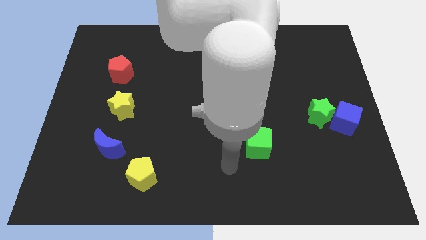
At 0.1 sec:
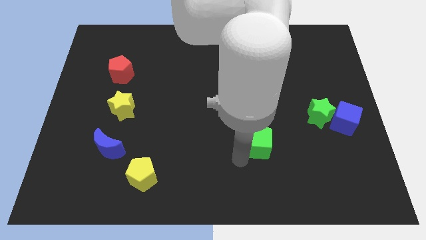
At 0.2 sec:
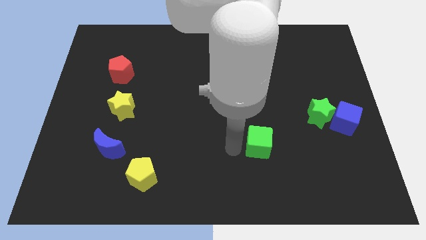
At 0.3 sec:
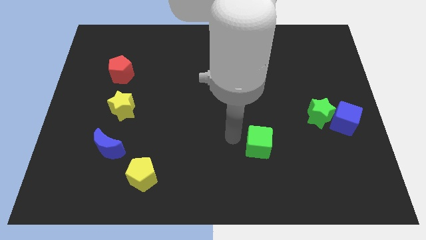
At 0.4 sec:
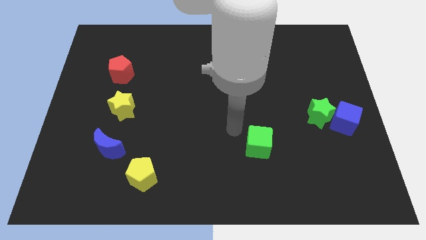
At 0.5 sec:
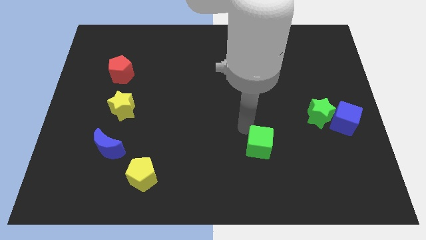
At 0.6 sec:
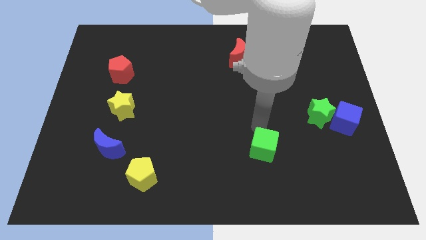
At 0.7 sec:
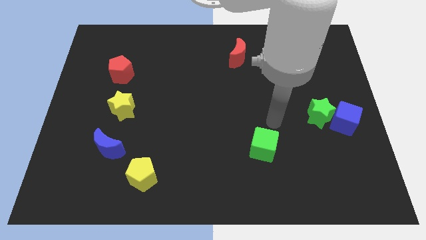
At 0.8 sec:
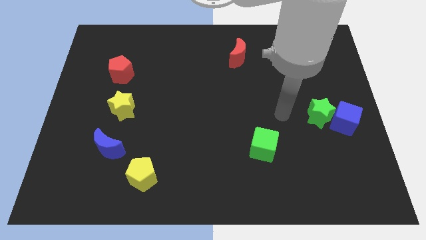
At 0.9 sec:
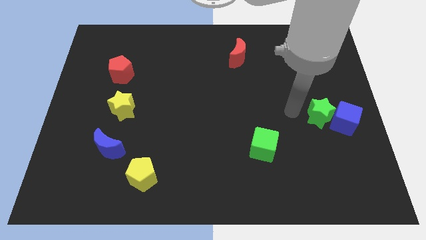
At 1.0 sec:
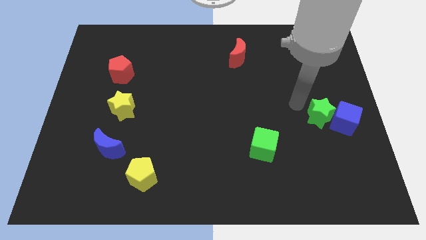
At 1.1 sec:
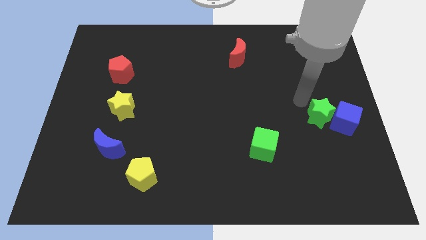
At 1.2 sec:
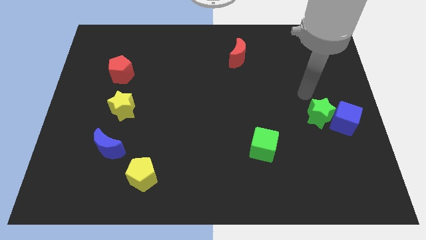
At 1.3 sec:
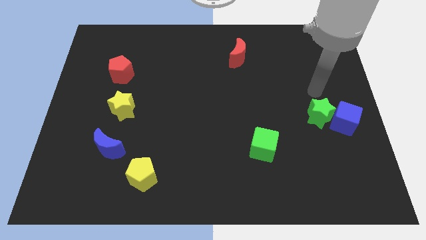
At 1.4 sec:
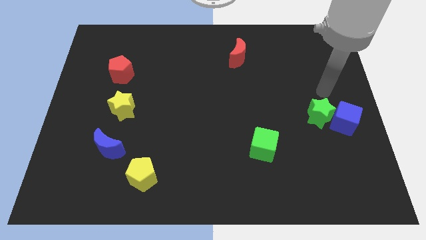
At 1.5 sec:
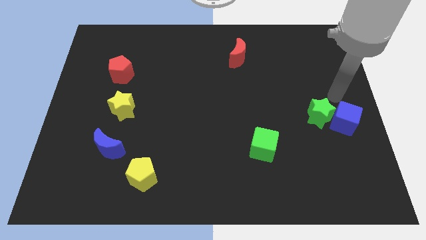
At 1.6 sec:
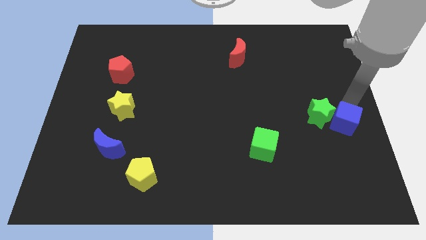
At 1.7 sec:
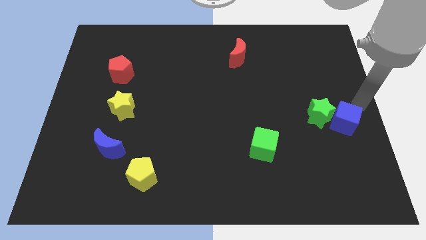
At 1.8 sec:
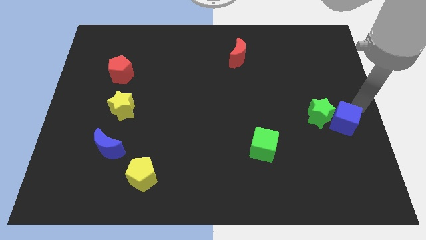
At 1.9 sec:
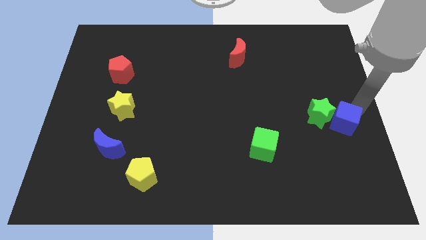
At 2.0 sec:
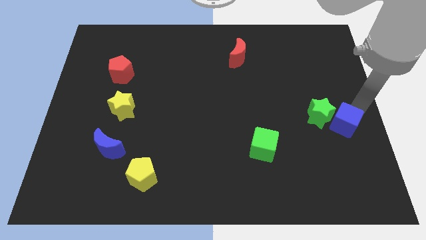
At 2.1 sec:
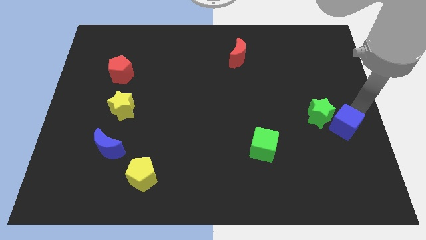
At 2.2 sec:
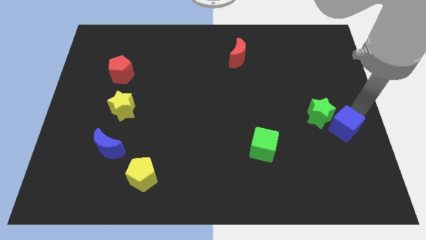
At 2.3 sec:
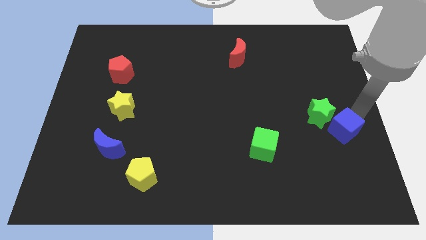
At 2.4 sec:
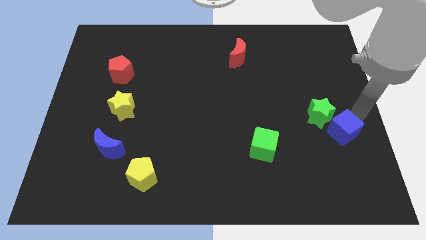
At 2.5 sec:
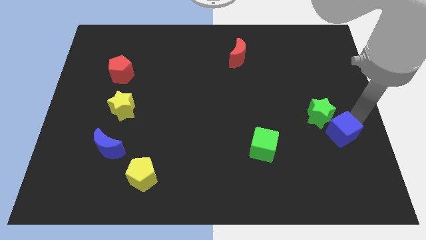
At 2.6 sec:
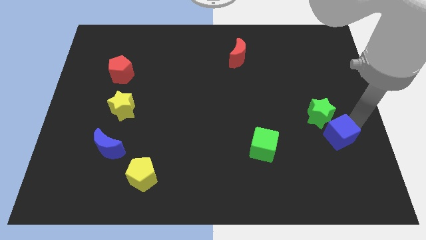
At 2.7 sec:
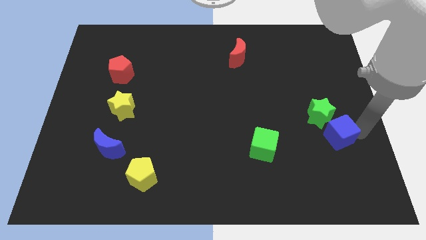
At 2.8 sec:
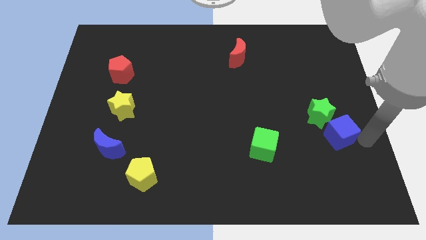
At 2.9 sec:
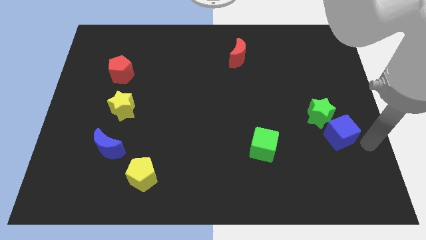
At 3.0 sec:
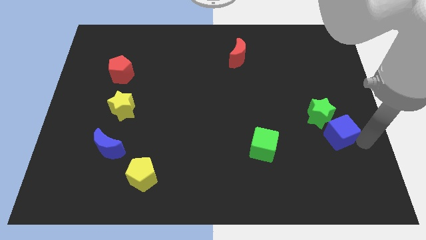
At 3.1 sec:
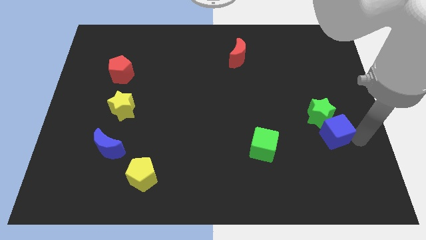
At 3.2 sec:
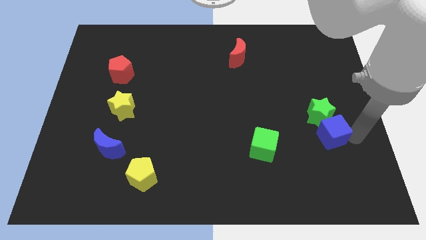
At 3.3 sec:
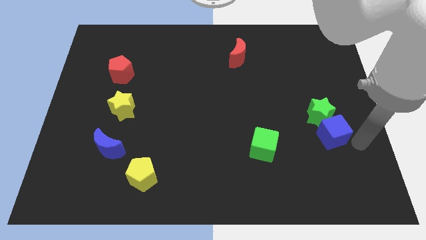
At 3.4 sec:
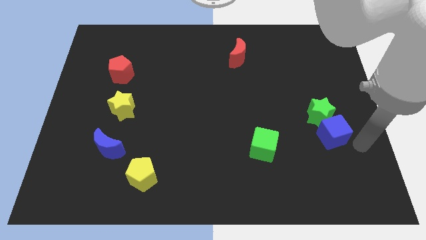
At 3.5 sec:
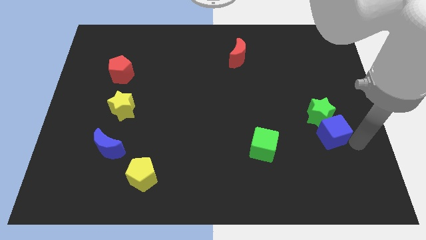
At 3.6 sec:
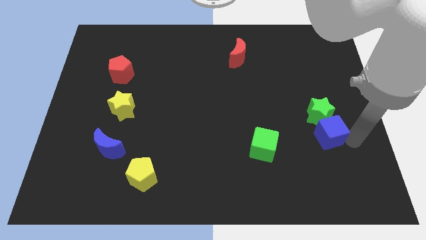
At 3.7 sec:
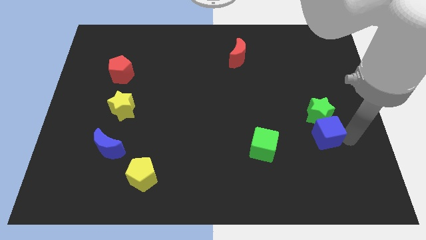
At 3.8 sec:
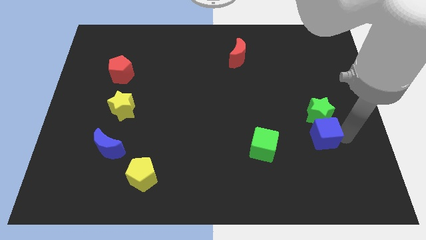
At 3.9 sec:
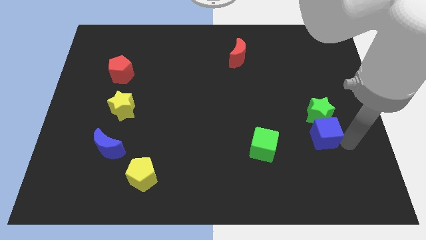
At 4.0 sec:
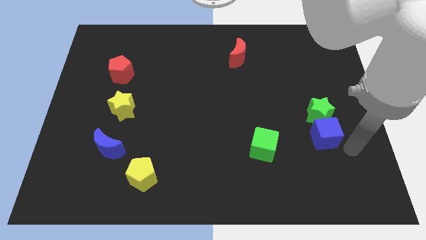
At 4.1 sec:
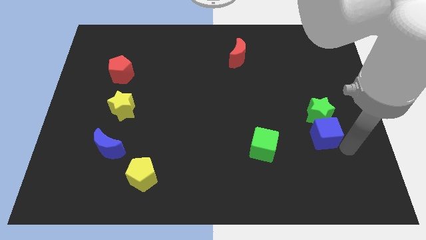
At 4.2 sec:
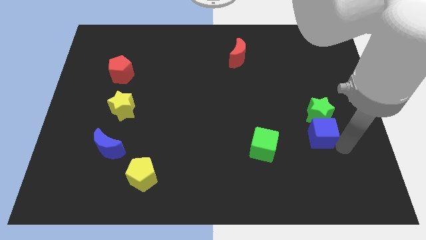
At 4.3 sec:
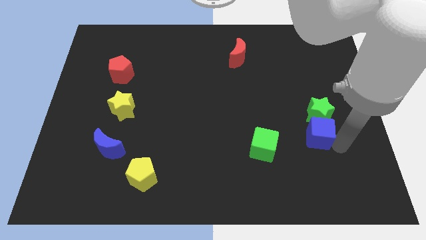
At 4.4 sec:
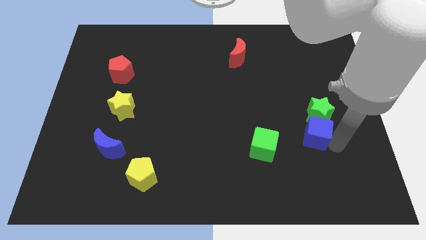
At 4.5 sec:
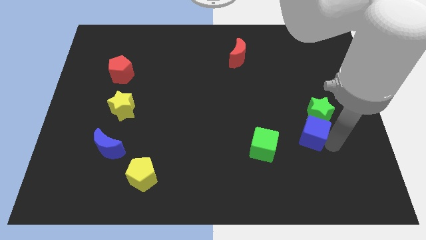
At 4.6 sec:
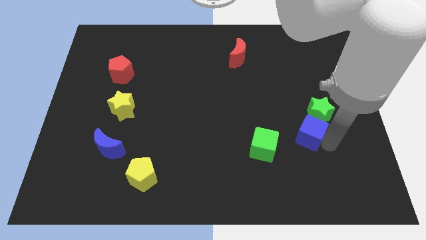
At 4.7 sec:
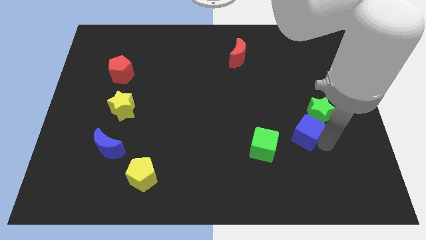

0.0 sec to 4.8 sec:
slide the blue cube to the top right side of the green cube

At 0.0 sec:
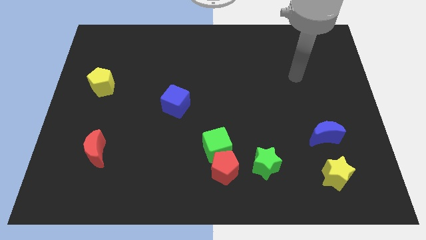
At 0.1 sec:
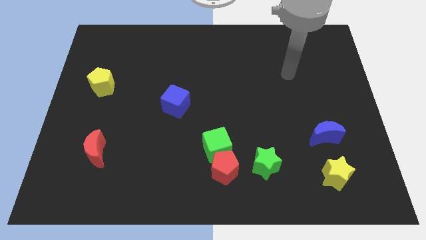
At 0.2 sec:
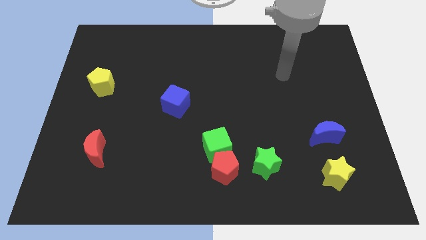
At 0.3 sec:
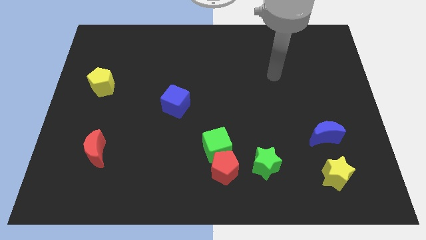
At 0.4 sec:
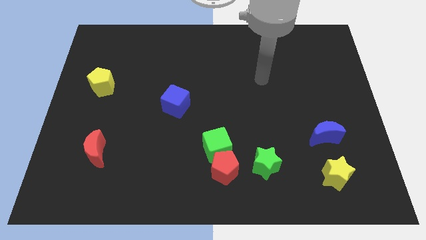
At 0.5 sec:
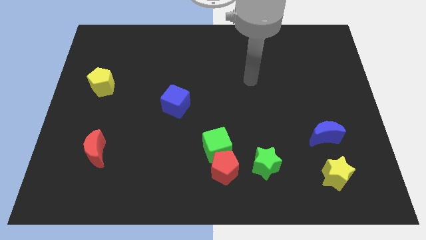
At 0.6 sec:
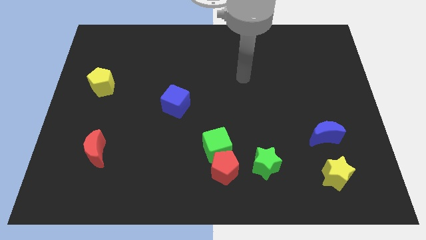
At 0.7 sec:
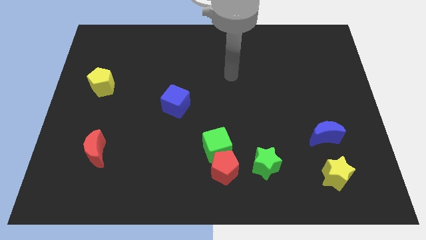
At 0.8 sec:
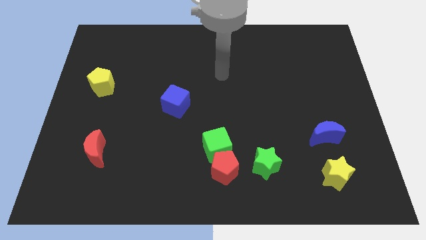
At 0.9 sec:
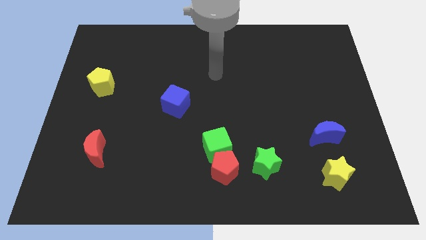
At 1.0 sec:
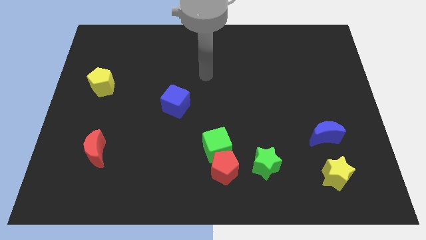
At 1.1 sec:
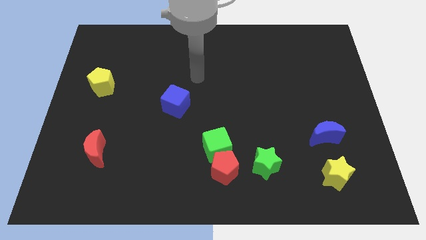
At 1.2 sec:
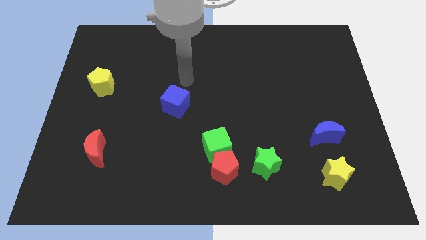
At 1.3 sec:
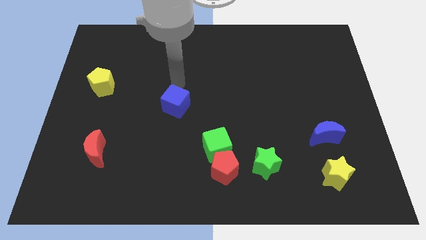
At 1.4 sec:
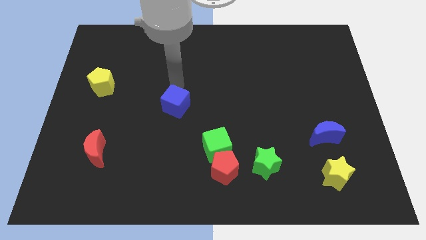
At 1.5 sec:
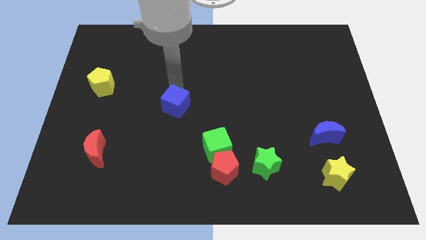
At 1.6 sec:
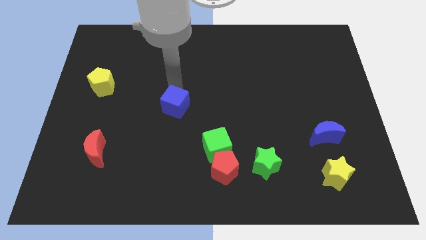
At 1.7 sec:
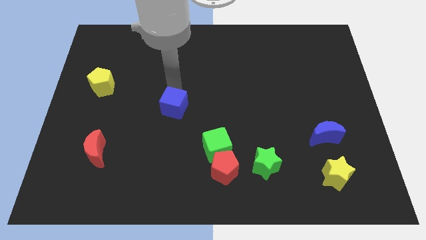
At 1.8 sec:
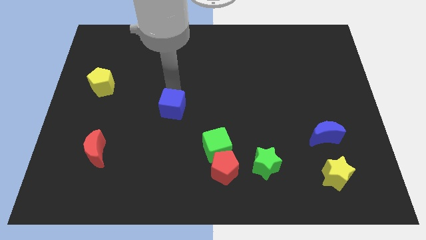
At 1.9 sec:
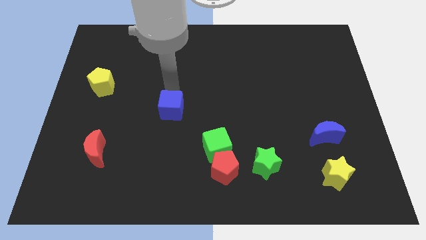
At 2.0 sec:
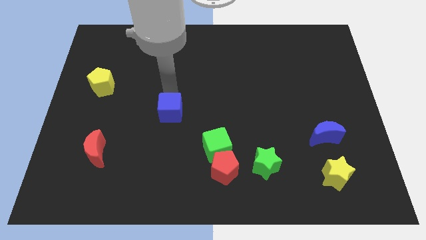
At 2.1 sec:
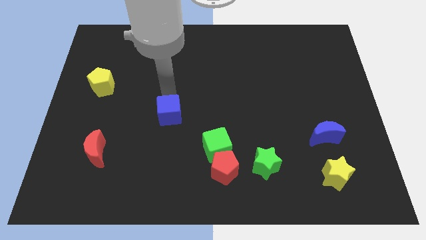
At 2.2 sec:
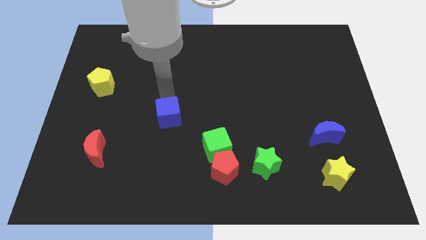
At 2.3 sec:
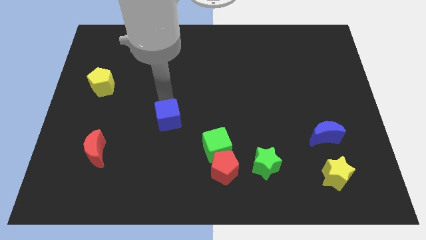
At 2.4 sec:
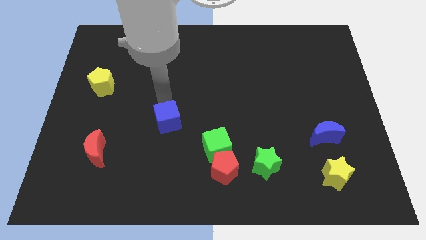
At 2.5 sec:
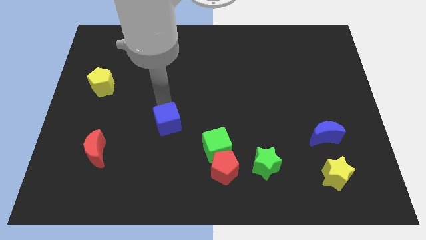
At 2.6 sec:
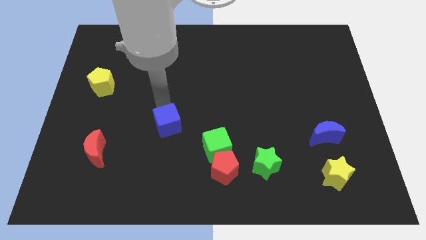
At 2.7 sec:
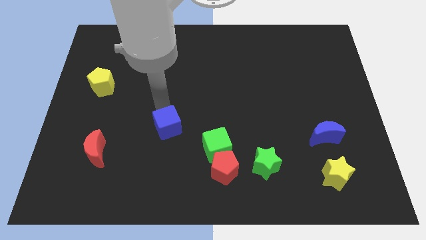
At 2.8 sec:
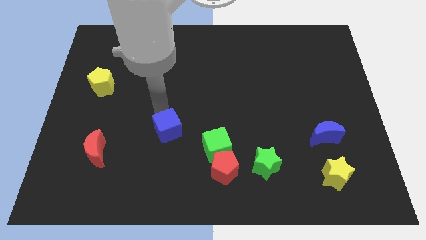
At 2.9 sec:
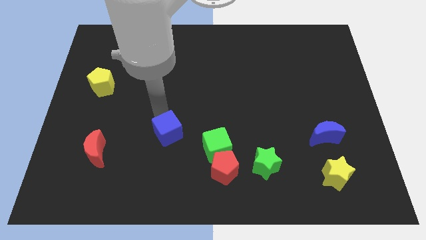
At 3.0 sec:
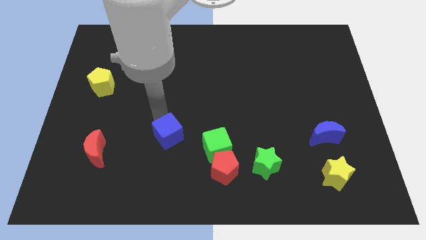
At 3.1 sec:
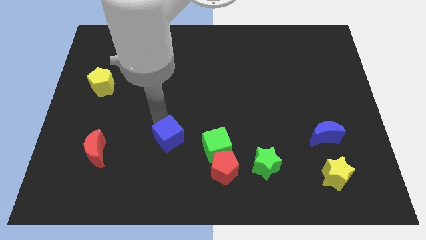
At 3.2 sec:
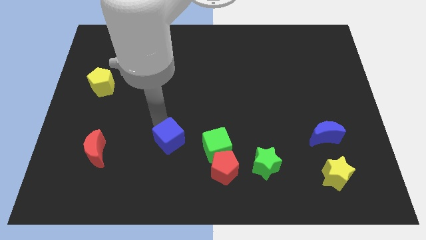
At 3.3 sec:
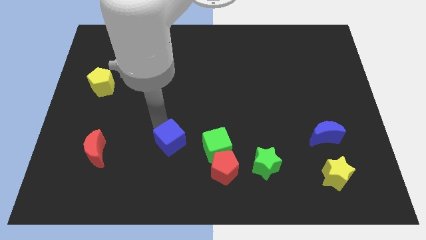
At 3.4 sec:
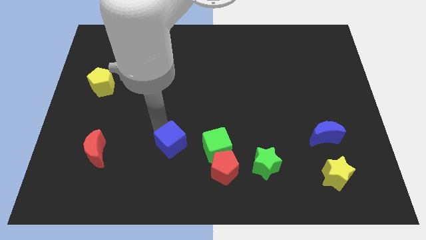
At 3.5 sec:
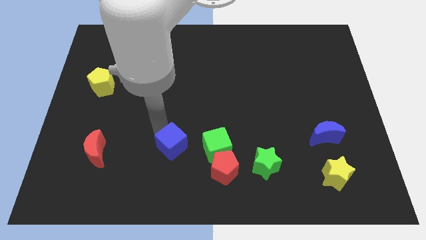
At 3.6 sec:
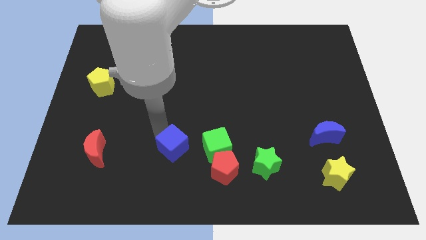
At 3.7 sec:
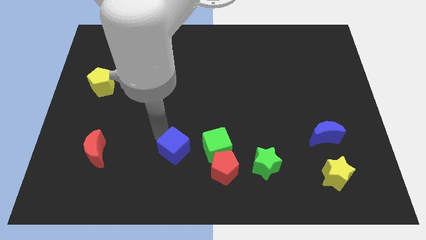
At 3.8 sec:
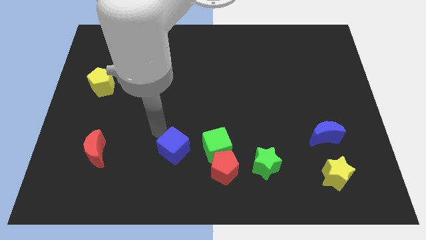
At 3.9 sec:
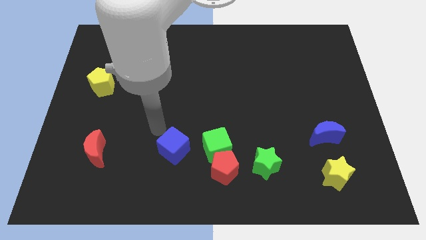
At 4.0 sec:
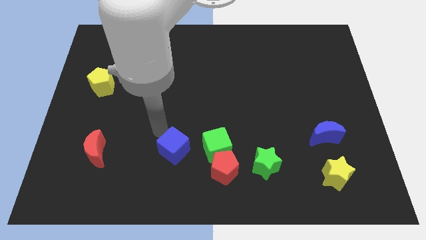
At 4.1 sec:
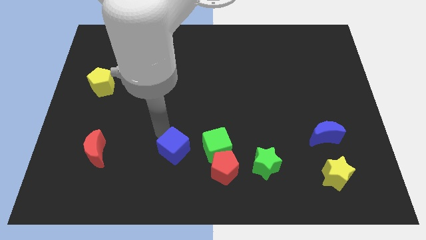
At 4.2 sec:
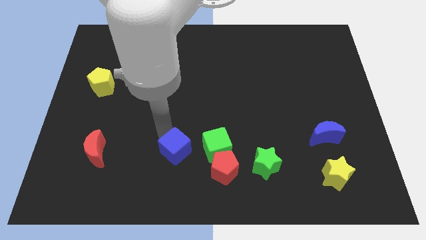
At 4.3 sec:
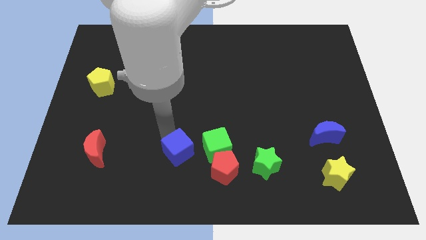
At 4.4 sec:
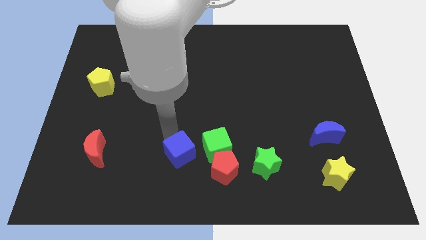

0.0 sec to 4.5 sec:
push the blue cube diagonally down and to the left of the green cube
